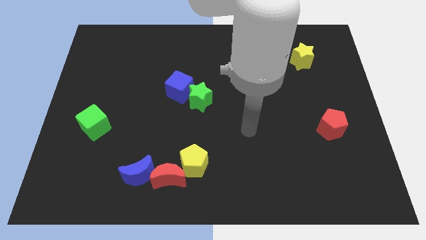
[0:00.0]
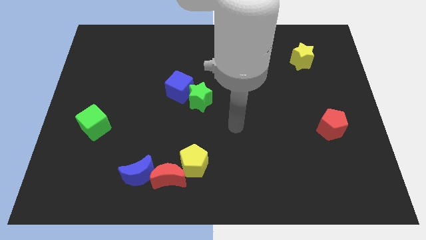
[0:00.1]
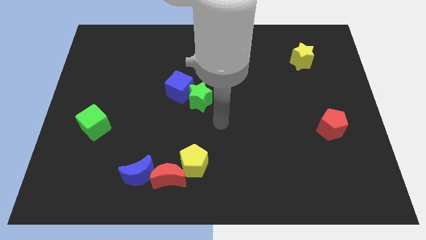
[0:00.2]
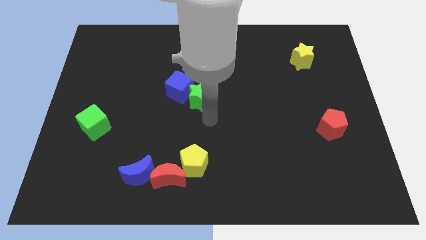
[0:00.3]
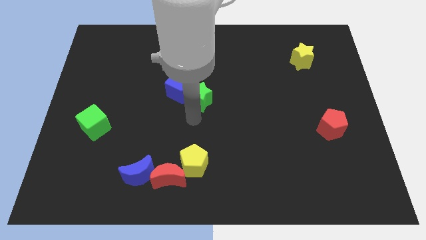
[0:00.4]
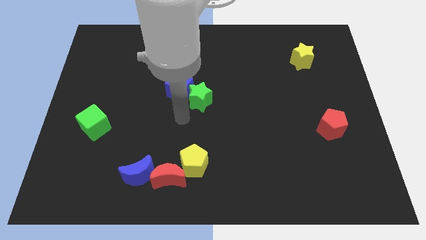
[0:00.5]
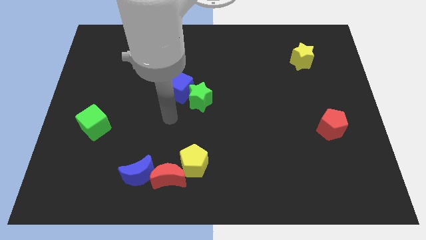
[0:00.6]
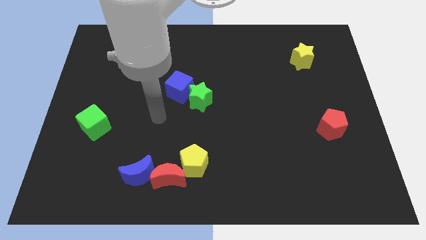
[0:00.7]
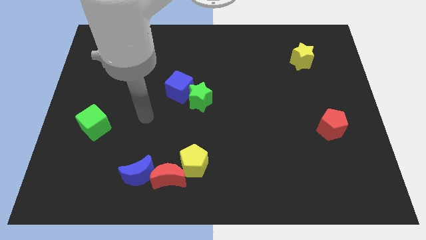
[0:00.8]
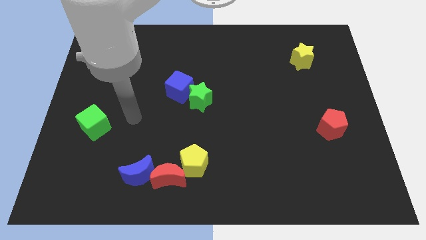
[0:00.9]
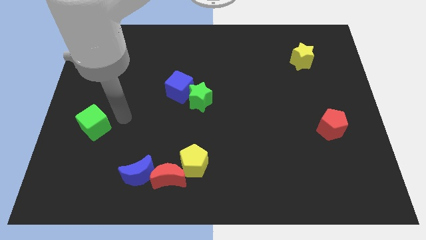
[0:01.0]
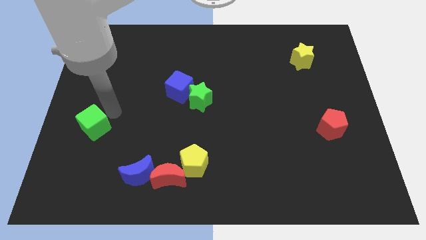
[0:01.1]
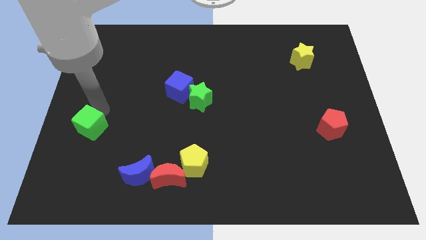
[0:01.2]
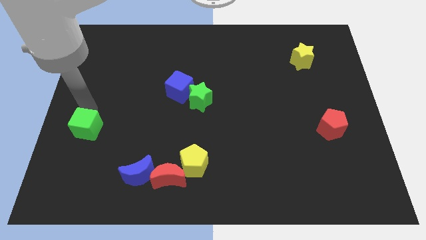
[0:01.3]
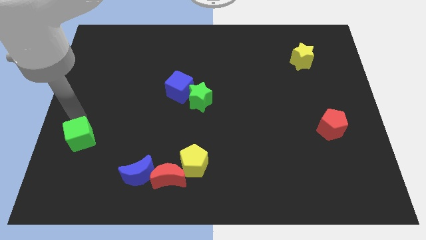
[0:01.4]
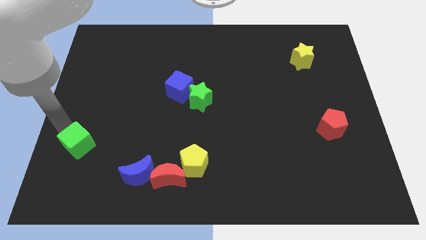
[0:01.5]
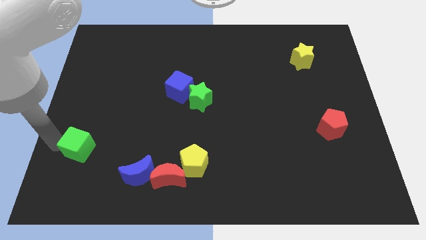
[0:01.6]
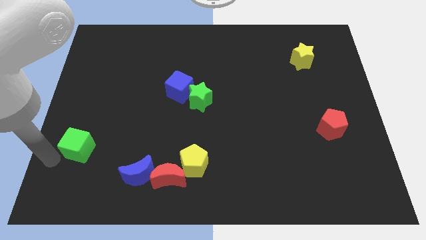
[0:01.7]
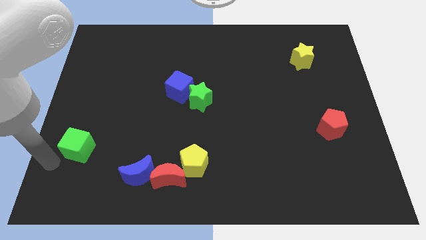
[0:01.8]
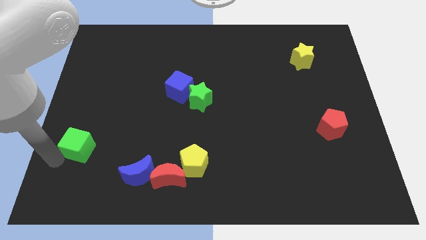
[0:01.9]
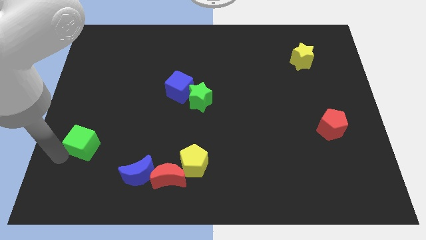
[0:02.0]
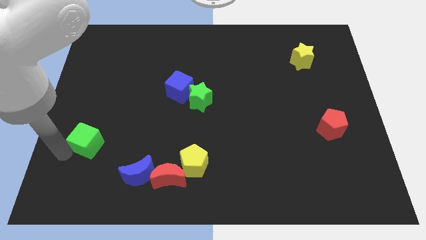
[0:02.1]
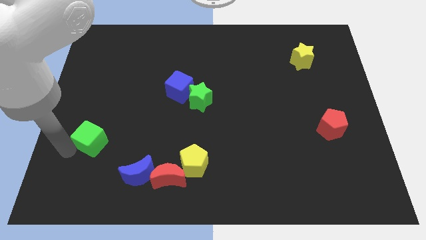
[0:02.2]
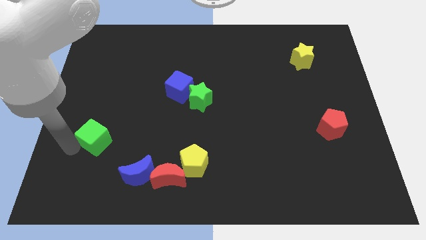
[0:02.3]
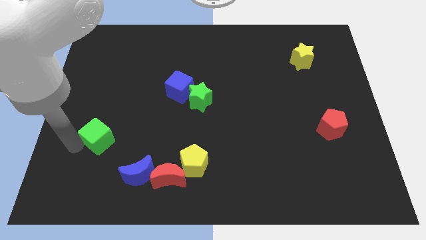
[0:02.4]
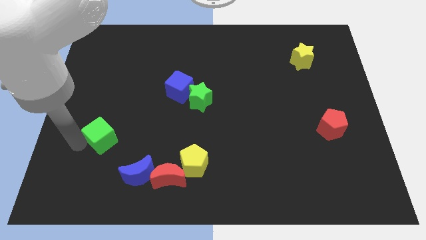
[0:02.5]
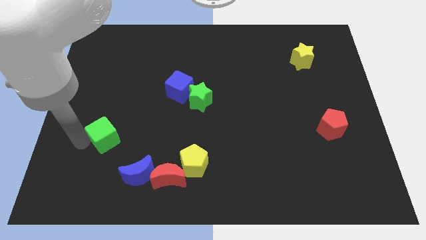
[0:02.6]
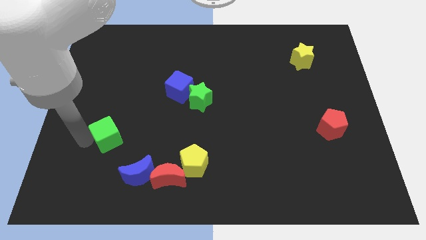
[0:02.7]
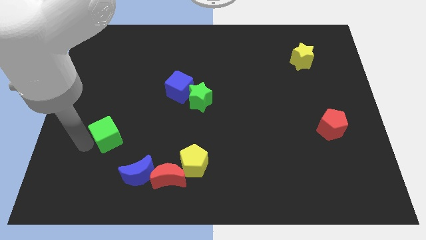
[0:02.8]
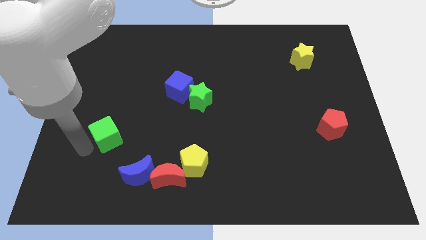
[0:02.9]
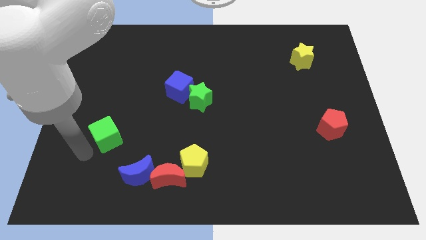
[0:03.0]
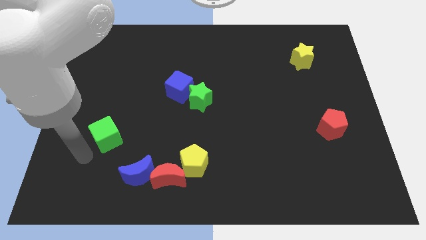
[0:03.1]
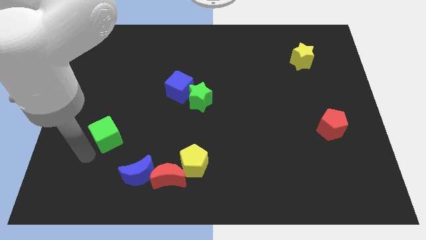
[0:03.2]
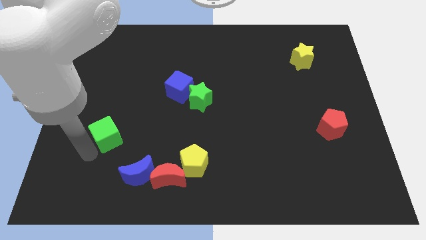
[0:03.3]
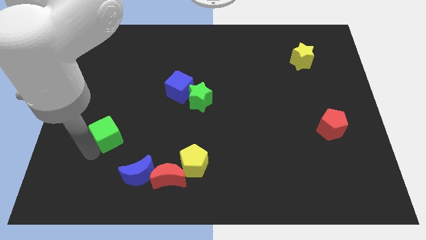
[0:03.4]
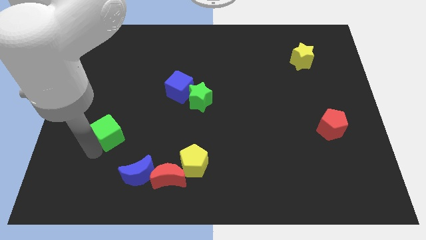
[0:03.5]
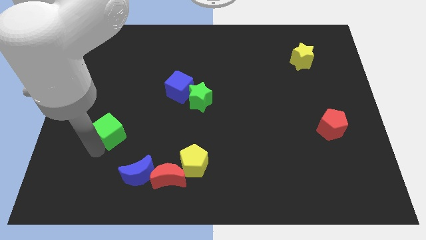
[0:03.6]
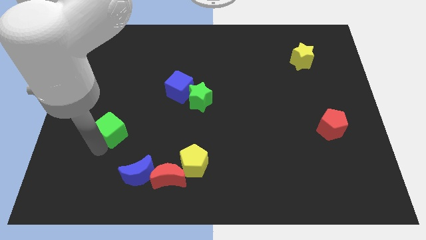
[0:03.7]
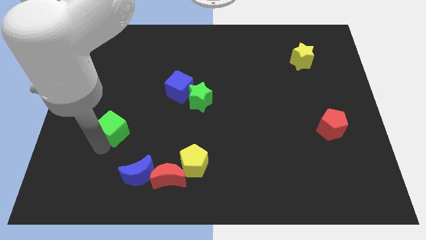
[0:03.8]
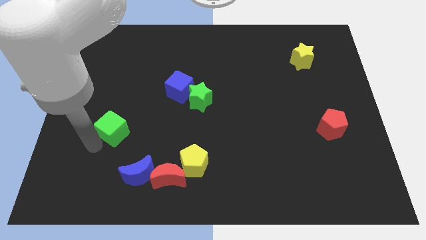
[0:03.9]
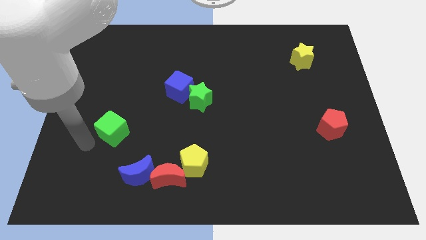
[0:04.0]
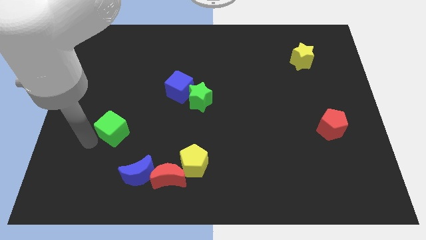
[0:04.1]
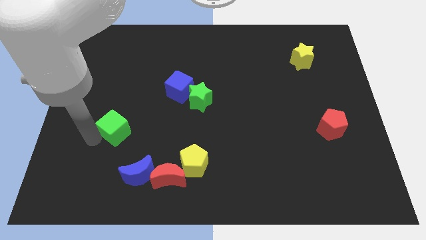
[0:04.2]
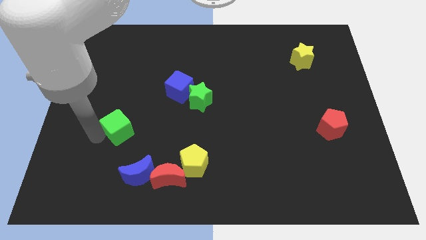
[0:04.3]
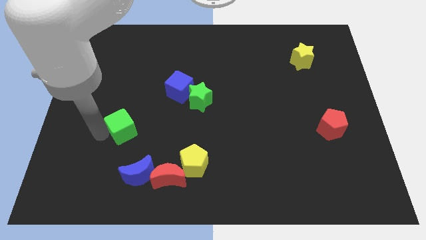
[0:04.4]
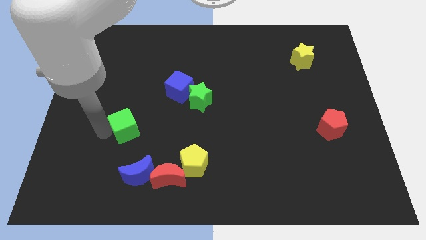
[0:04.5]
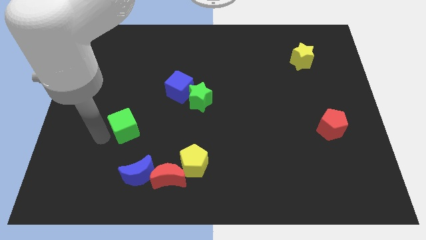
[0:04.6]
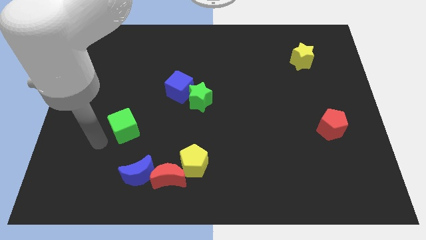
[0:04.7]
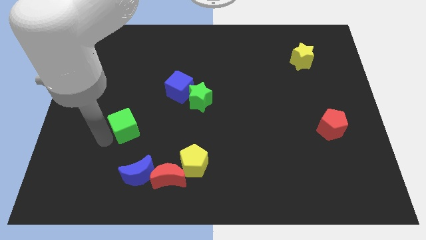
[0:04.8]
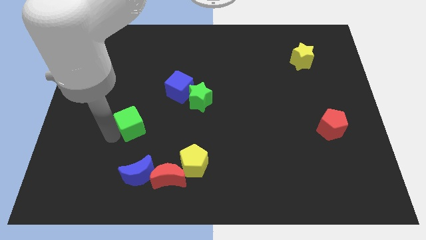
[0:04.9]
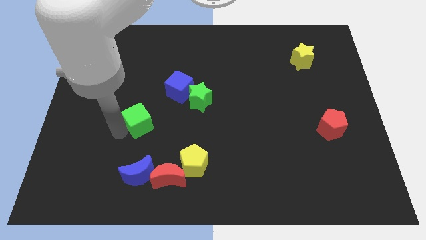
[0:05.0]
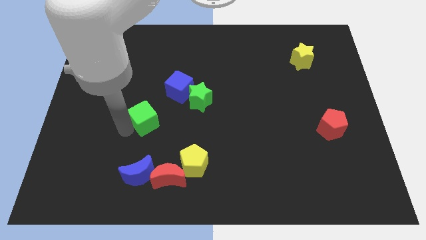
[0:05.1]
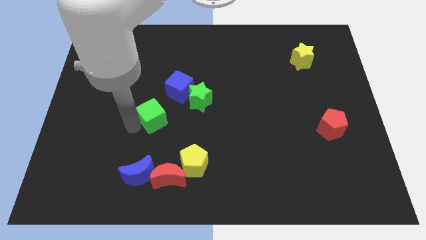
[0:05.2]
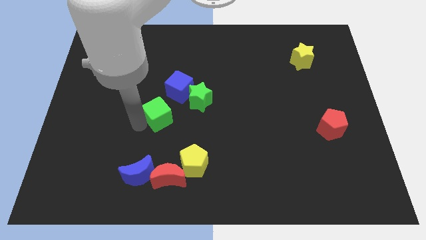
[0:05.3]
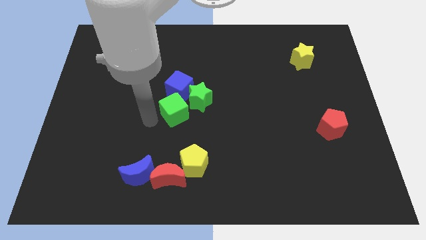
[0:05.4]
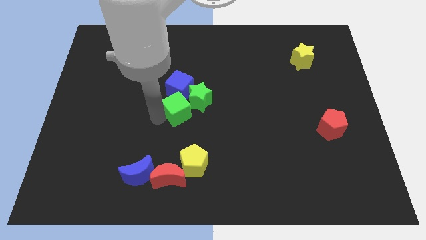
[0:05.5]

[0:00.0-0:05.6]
slide the green cube next to the green star

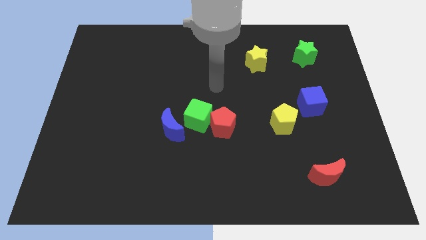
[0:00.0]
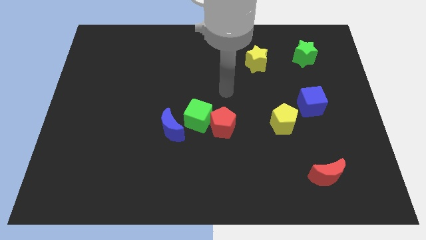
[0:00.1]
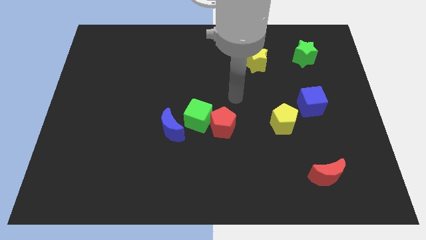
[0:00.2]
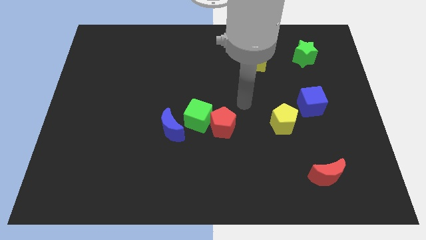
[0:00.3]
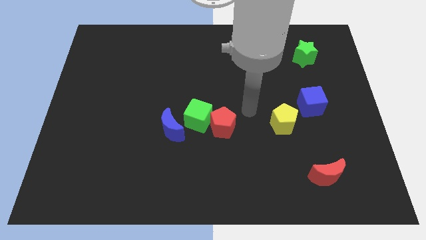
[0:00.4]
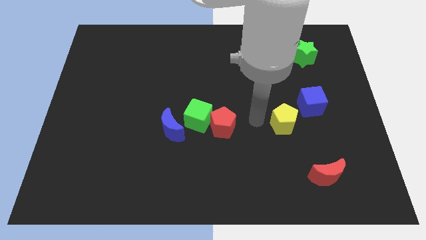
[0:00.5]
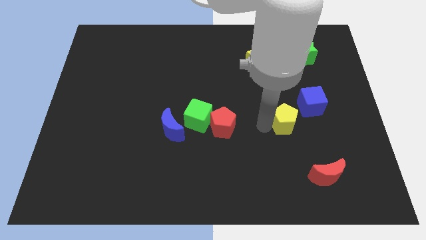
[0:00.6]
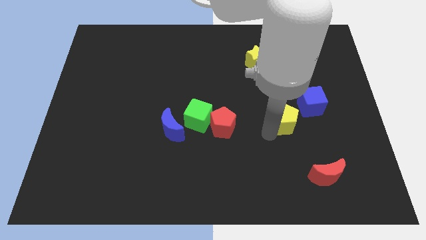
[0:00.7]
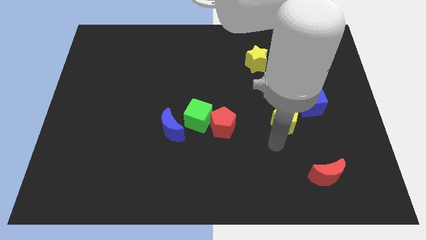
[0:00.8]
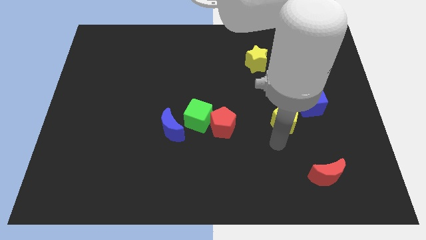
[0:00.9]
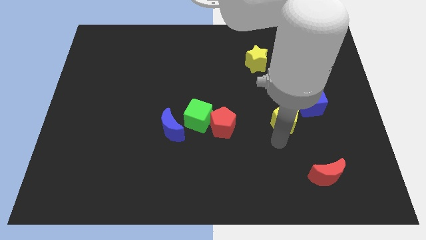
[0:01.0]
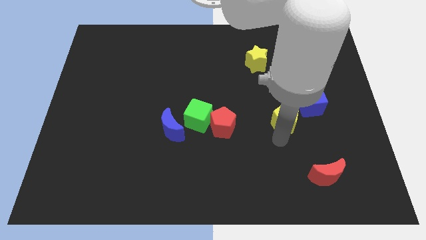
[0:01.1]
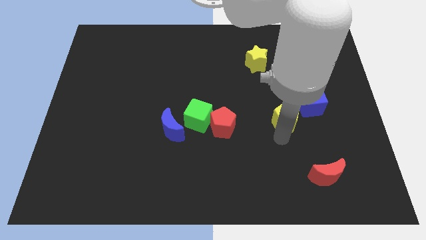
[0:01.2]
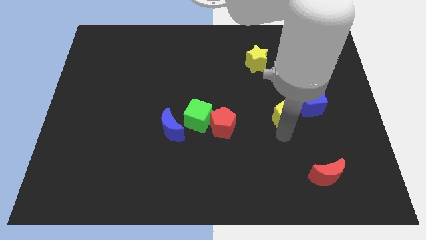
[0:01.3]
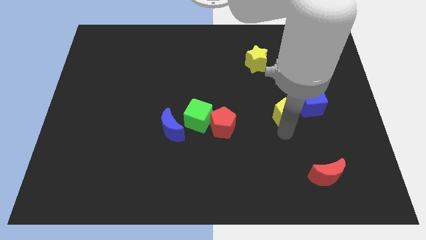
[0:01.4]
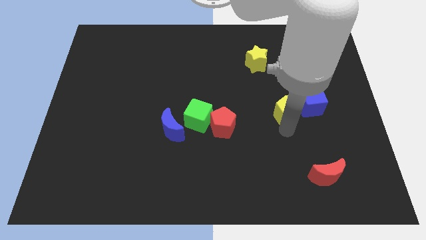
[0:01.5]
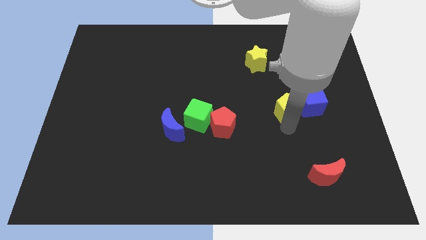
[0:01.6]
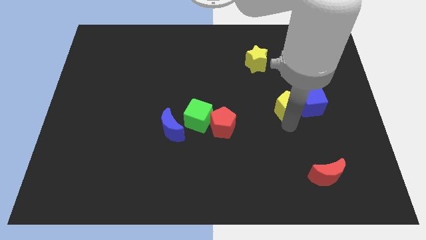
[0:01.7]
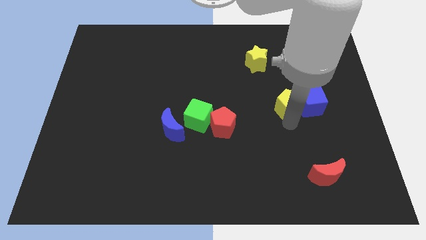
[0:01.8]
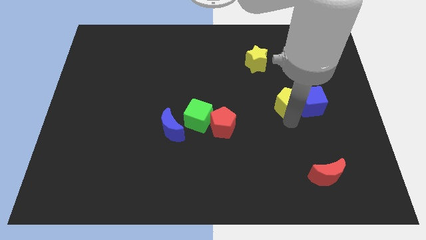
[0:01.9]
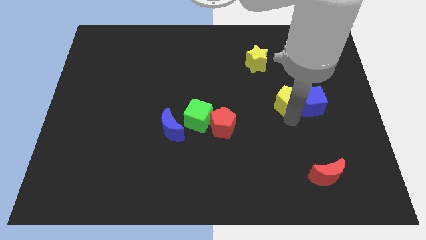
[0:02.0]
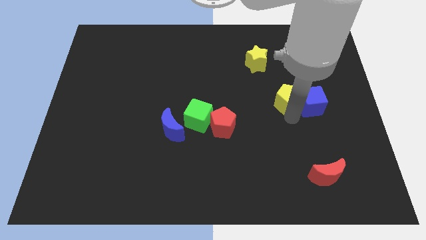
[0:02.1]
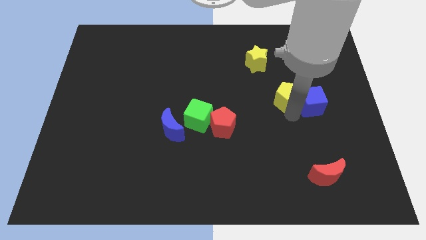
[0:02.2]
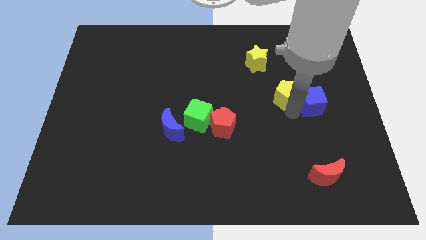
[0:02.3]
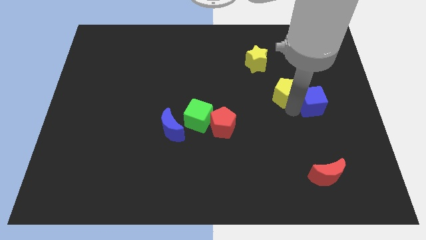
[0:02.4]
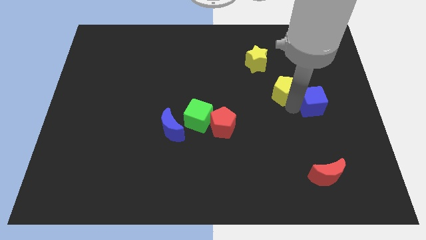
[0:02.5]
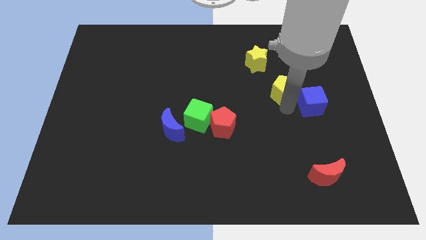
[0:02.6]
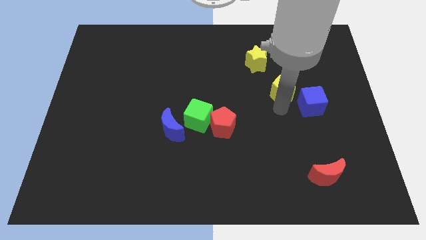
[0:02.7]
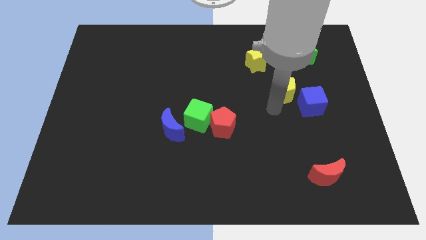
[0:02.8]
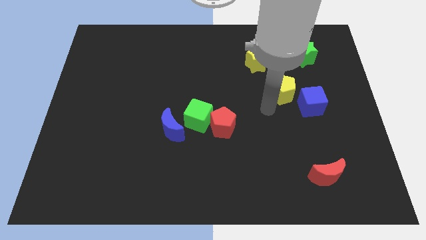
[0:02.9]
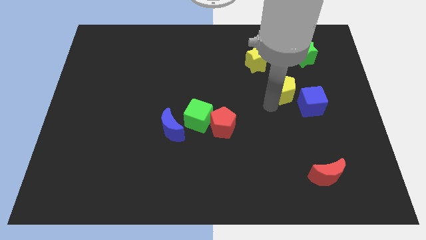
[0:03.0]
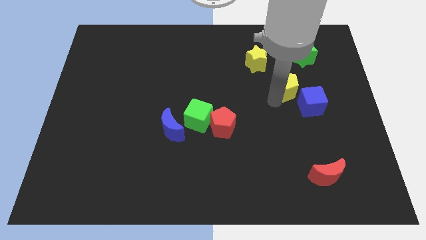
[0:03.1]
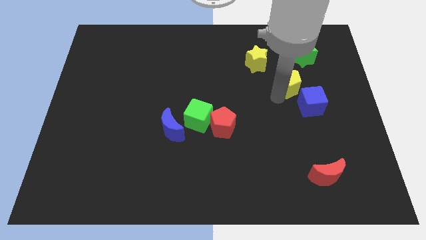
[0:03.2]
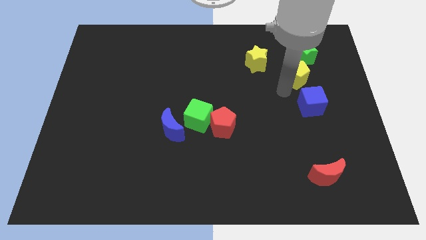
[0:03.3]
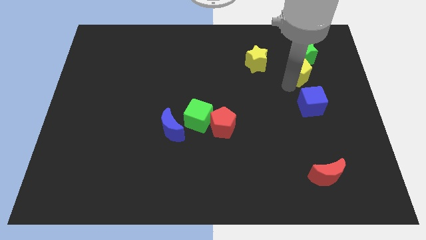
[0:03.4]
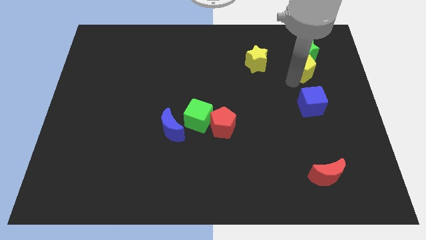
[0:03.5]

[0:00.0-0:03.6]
move the yellow pentagon close to the green star
